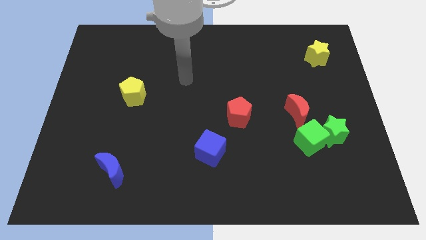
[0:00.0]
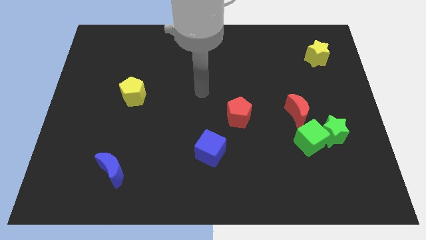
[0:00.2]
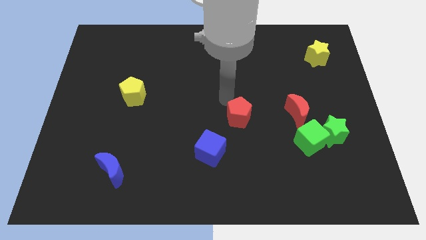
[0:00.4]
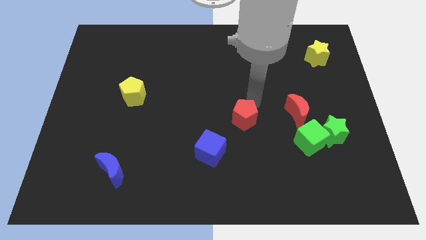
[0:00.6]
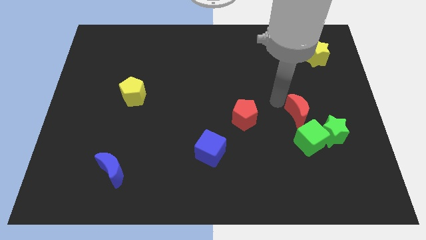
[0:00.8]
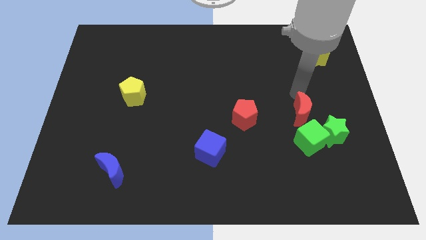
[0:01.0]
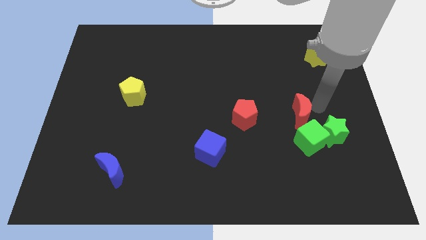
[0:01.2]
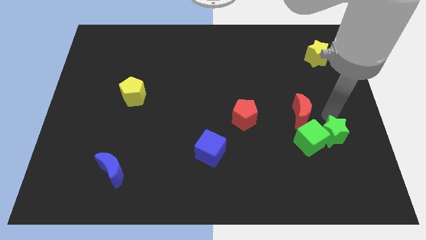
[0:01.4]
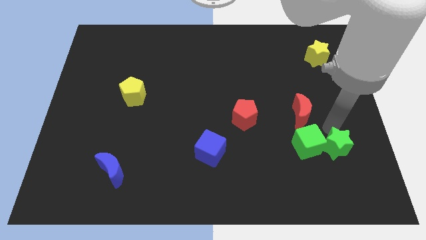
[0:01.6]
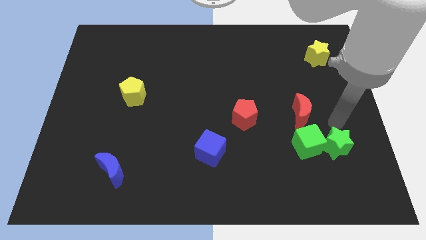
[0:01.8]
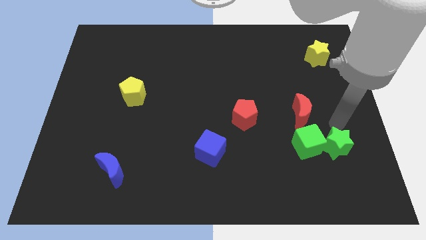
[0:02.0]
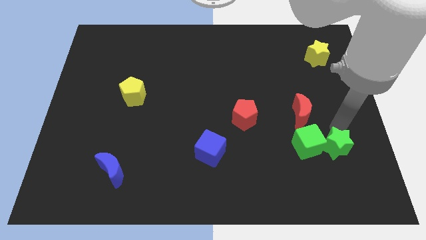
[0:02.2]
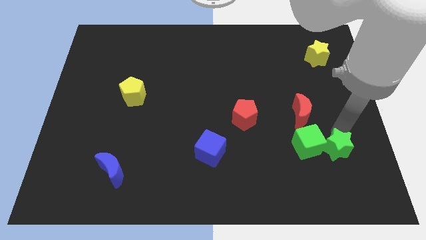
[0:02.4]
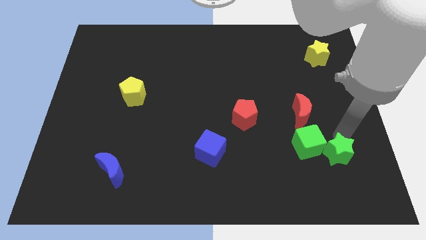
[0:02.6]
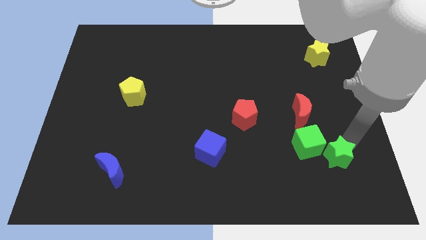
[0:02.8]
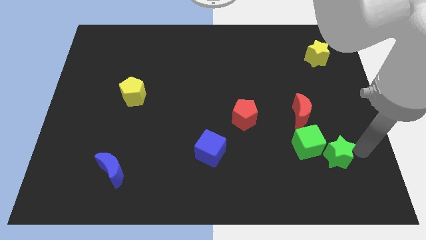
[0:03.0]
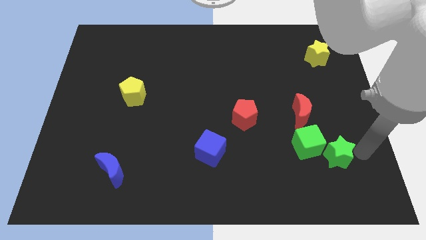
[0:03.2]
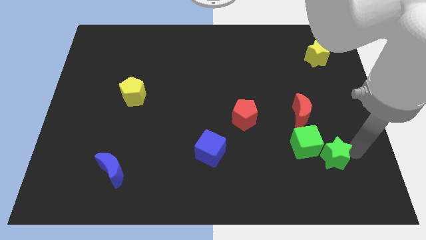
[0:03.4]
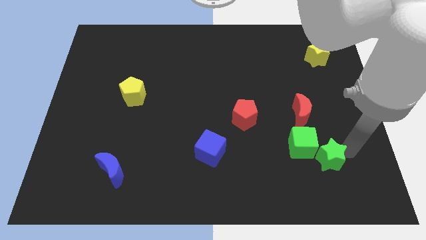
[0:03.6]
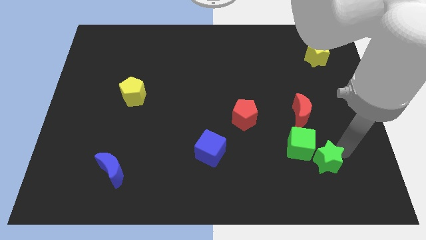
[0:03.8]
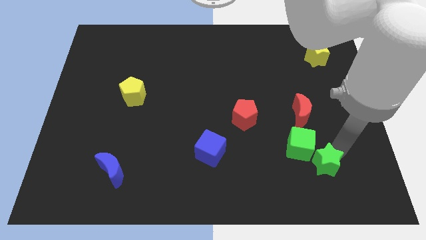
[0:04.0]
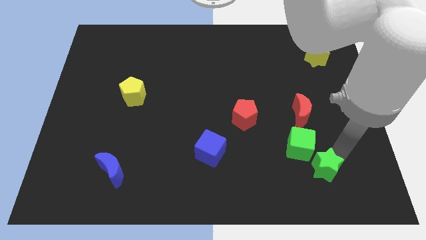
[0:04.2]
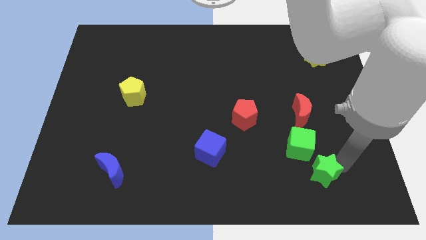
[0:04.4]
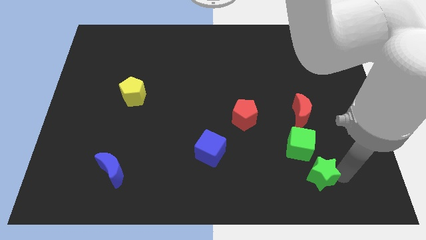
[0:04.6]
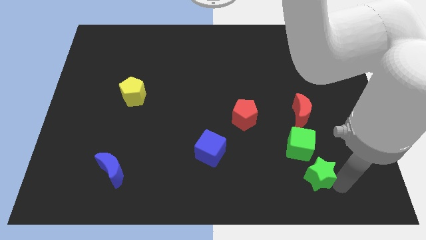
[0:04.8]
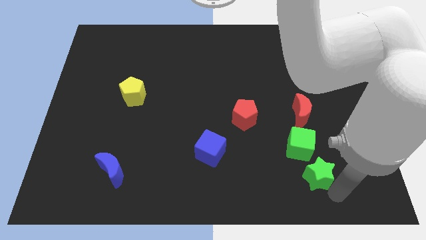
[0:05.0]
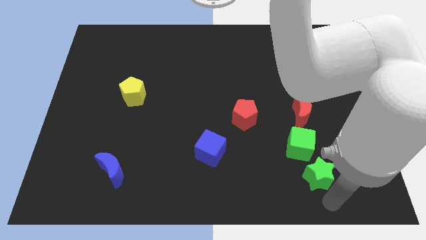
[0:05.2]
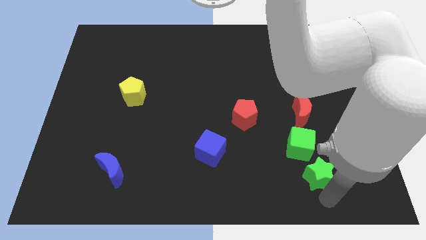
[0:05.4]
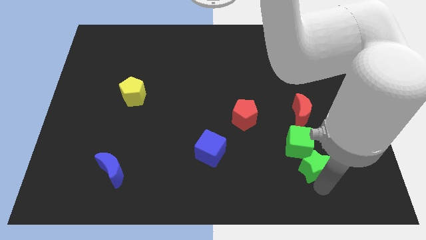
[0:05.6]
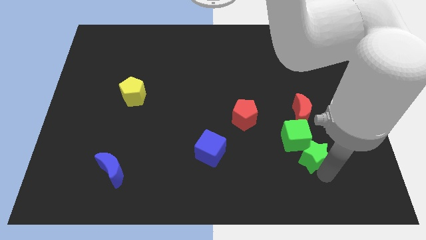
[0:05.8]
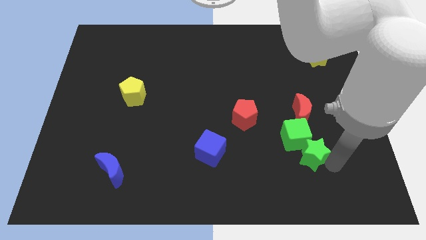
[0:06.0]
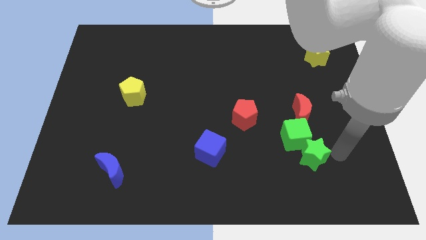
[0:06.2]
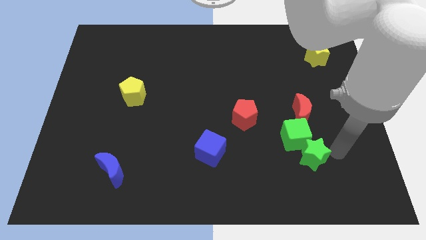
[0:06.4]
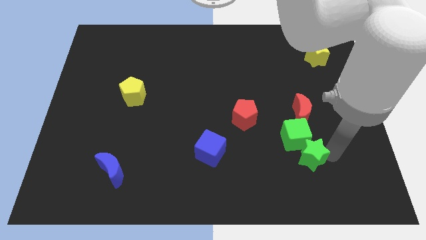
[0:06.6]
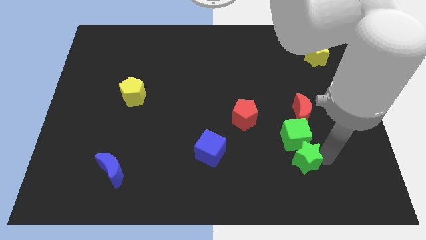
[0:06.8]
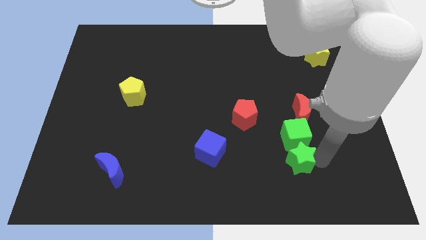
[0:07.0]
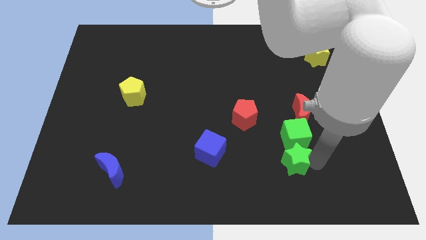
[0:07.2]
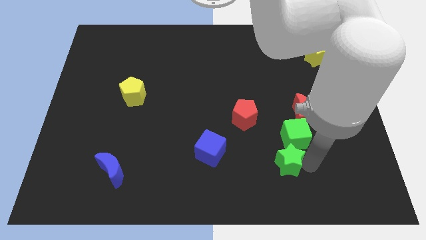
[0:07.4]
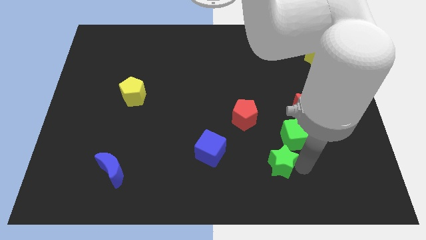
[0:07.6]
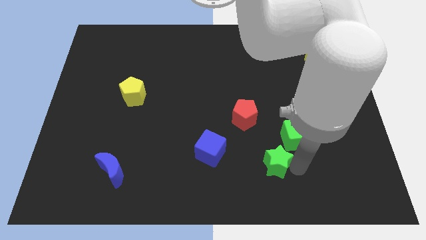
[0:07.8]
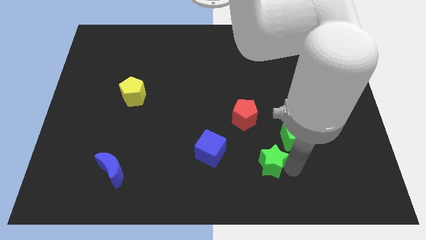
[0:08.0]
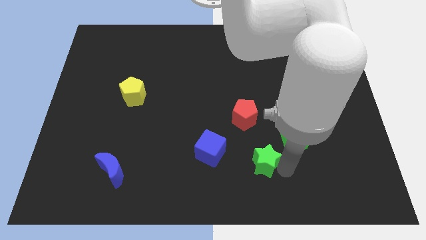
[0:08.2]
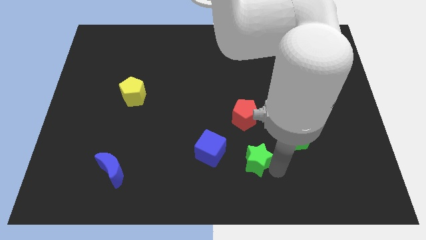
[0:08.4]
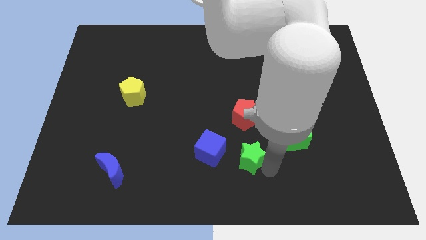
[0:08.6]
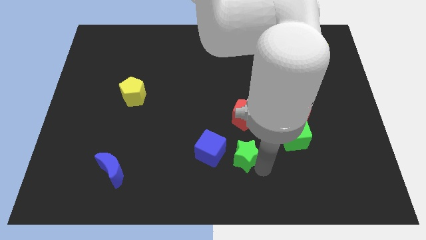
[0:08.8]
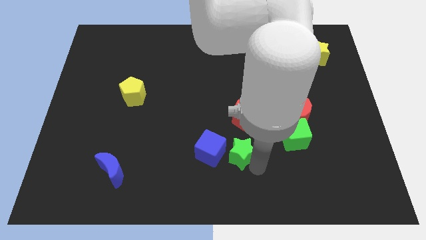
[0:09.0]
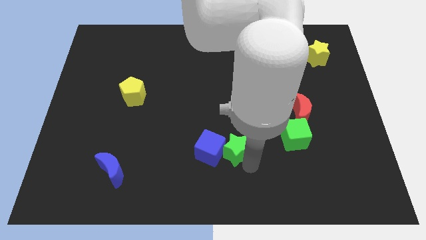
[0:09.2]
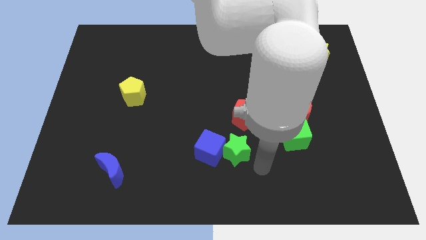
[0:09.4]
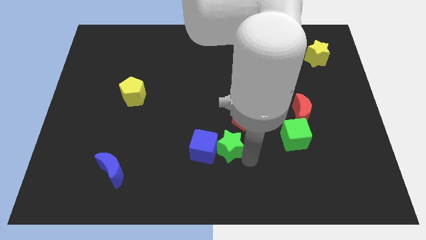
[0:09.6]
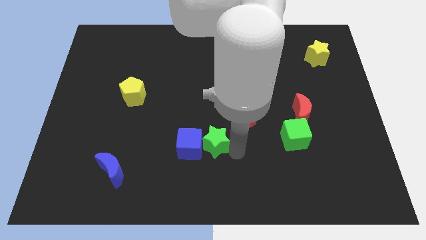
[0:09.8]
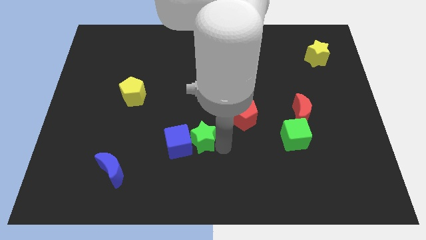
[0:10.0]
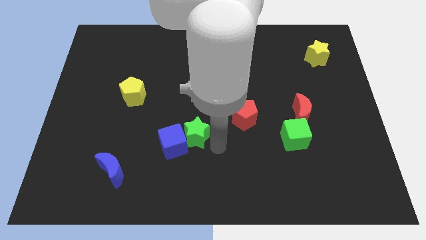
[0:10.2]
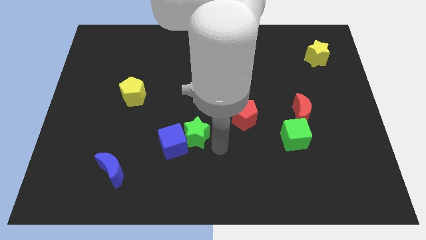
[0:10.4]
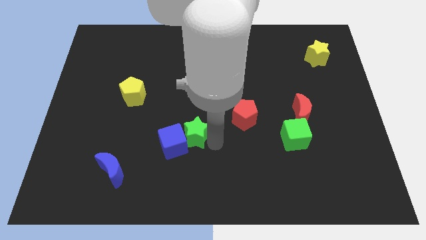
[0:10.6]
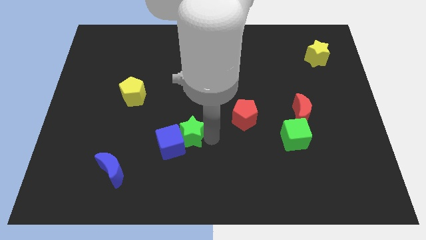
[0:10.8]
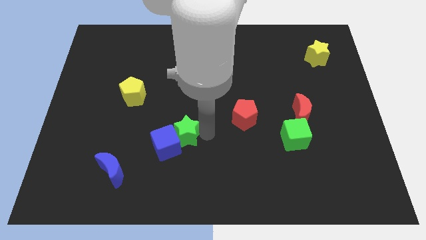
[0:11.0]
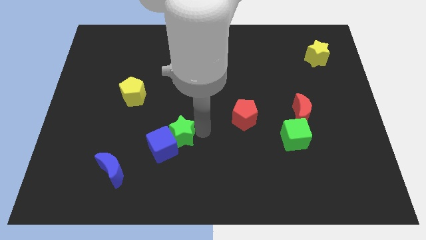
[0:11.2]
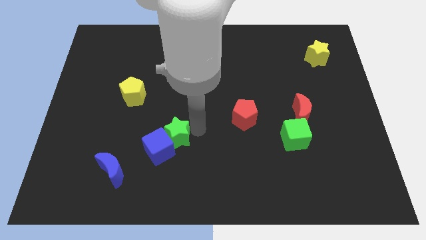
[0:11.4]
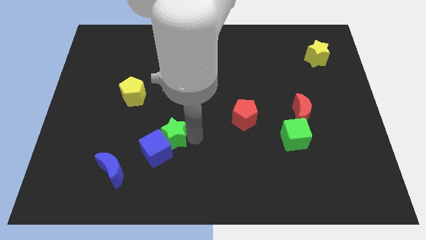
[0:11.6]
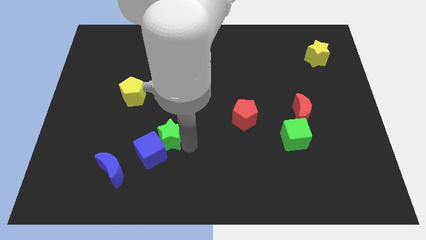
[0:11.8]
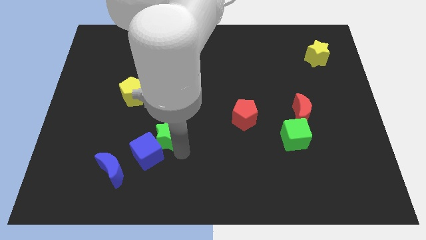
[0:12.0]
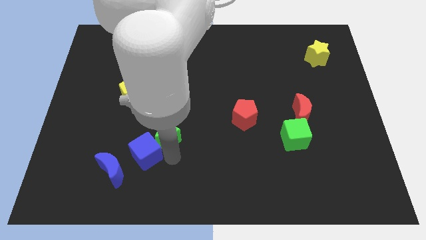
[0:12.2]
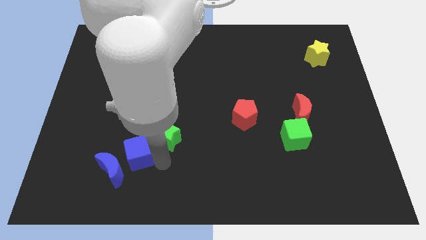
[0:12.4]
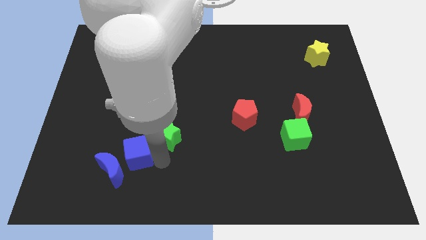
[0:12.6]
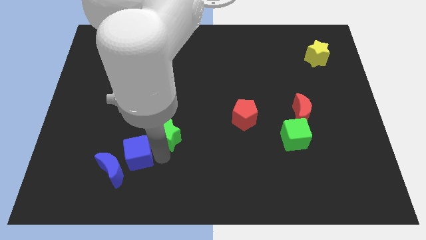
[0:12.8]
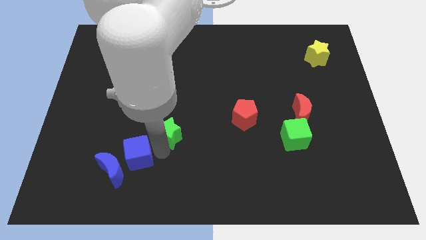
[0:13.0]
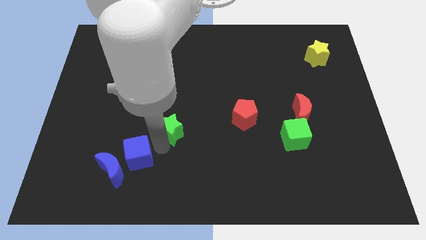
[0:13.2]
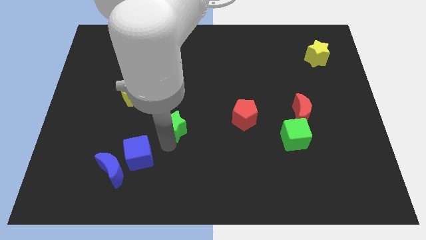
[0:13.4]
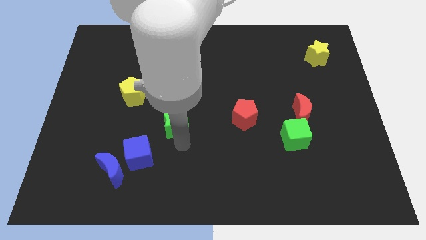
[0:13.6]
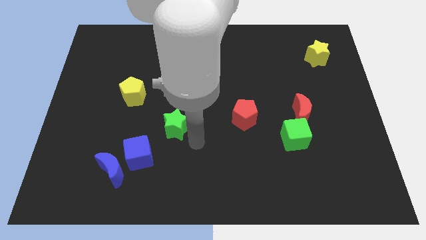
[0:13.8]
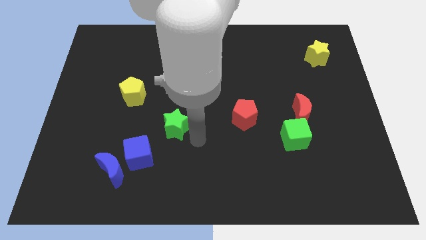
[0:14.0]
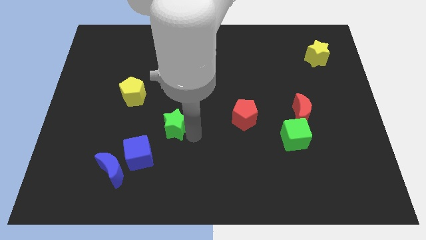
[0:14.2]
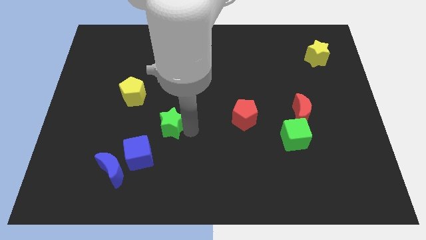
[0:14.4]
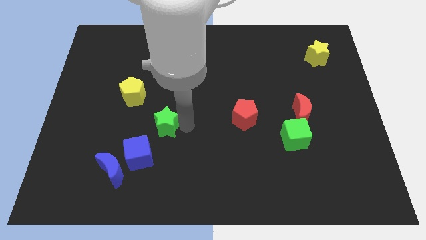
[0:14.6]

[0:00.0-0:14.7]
put the green star diagonally down and to the right of the yellow pentagon
